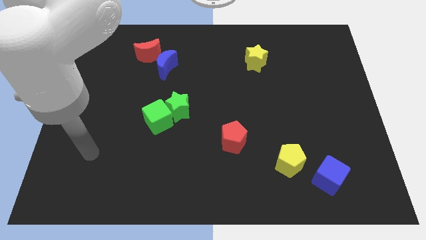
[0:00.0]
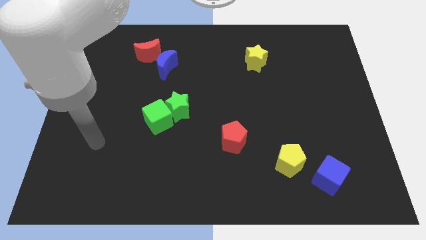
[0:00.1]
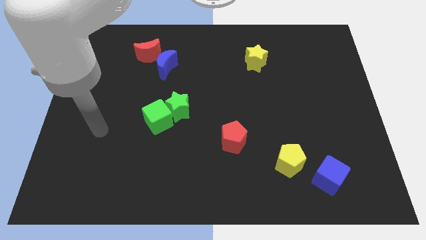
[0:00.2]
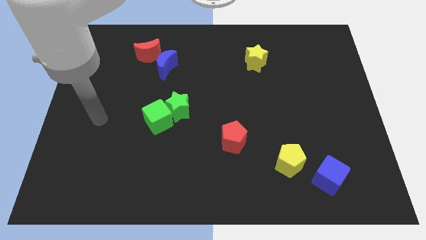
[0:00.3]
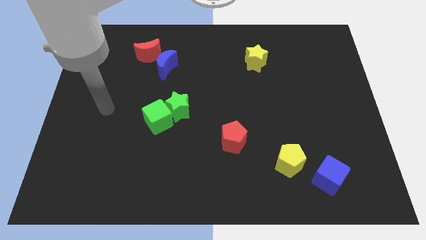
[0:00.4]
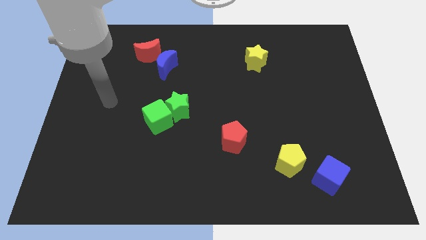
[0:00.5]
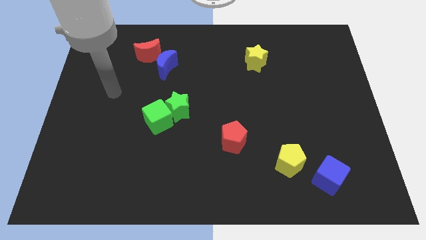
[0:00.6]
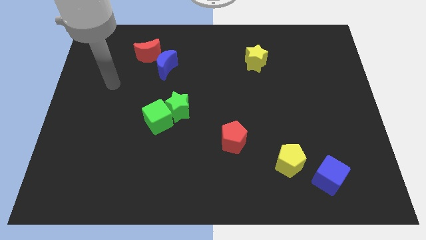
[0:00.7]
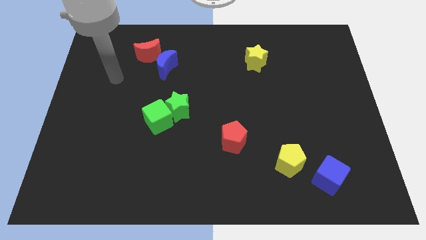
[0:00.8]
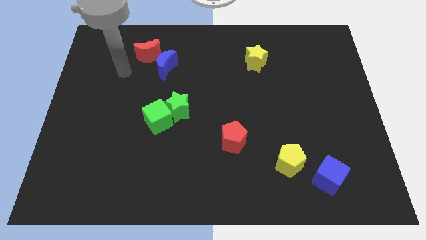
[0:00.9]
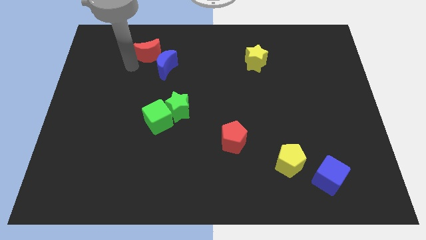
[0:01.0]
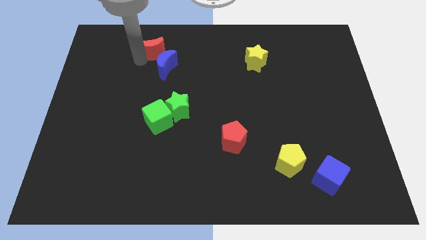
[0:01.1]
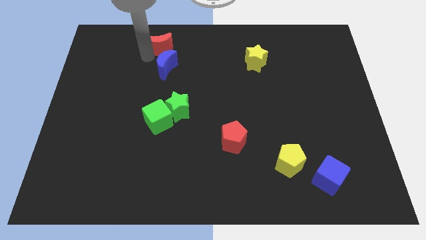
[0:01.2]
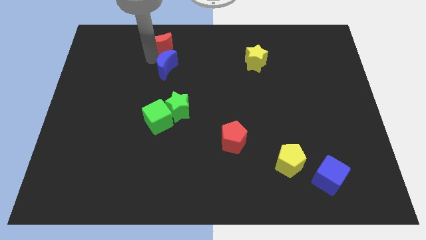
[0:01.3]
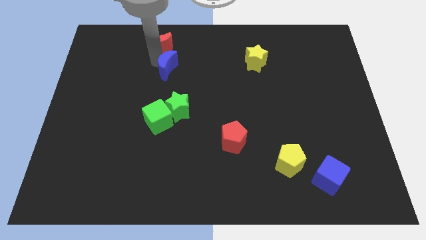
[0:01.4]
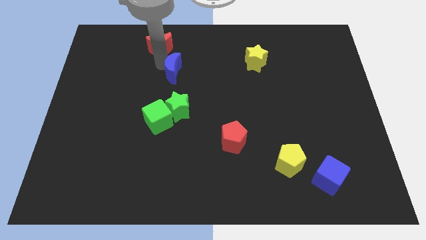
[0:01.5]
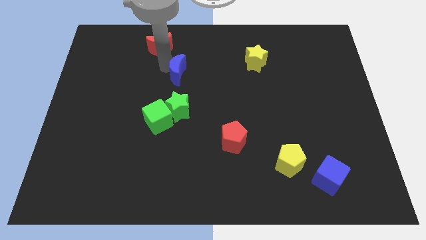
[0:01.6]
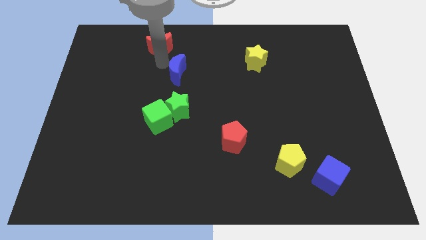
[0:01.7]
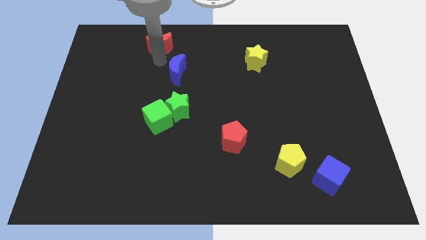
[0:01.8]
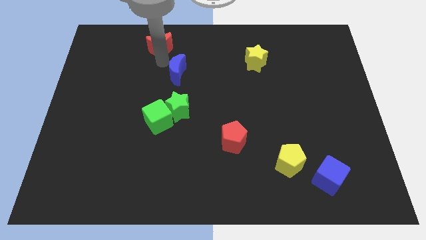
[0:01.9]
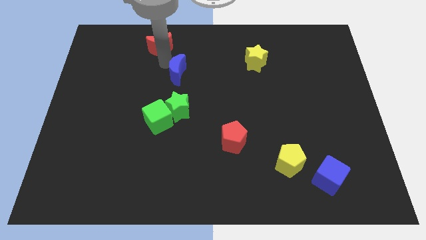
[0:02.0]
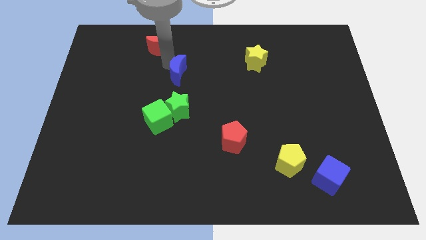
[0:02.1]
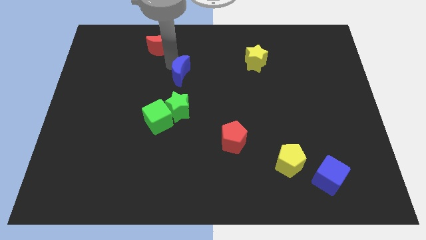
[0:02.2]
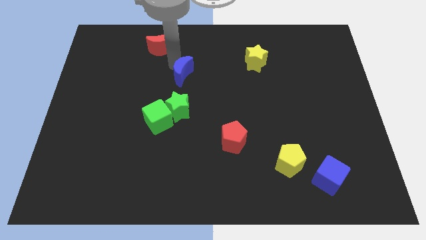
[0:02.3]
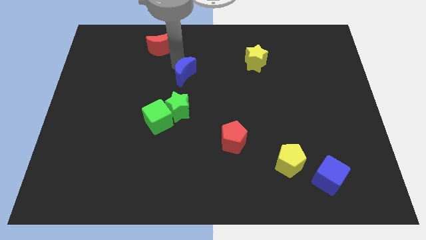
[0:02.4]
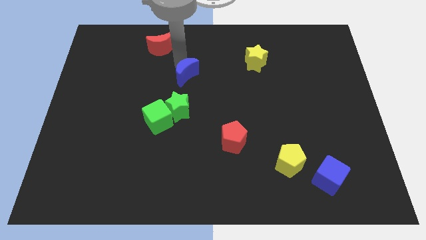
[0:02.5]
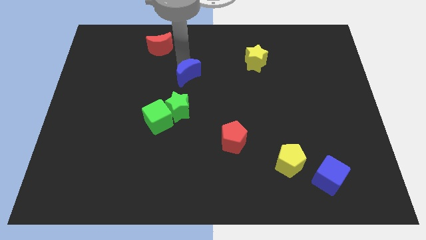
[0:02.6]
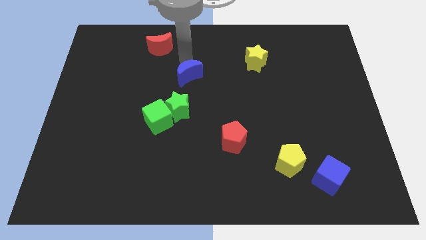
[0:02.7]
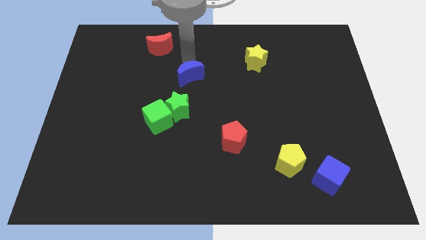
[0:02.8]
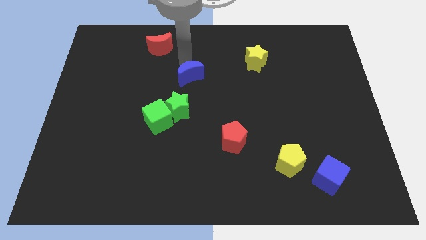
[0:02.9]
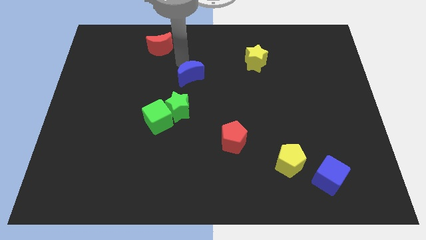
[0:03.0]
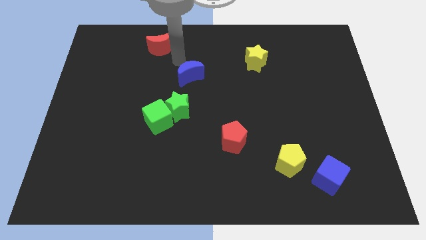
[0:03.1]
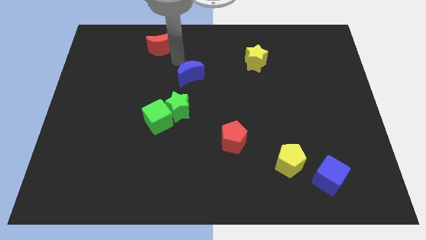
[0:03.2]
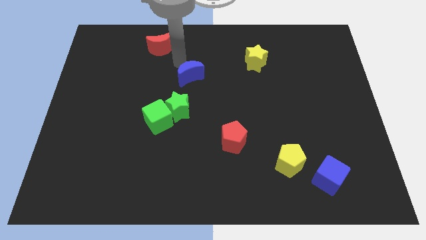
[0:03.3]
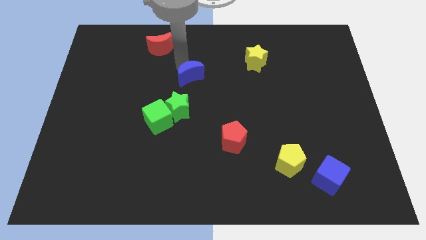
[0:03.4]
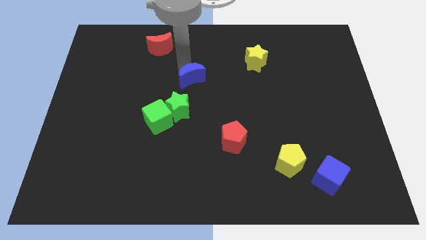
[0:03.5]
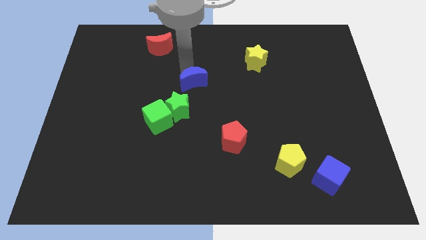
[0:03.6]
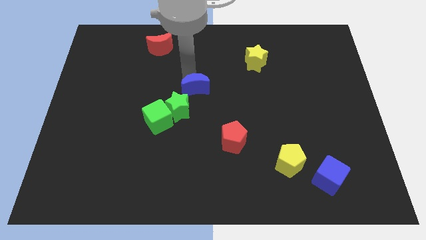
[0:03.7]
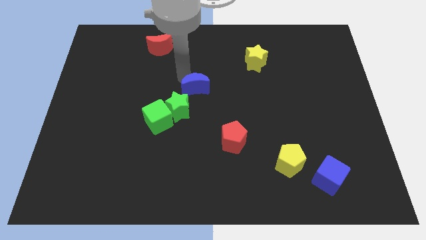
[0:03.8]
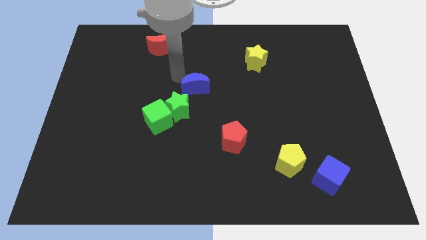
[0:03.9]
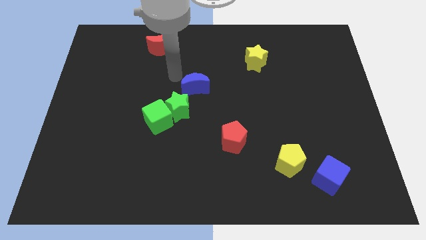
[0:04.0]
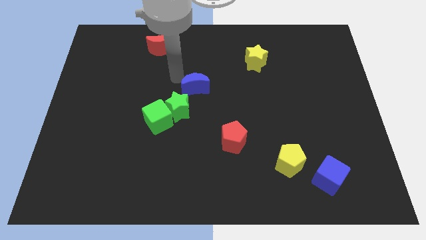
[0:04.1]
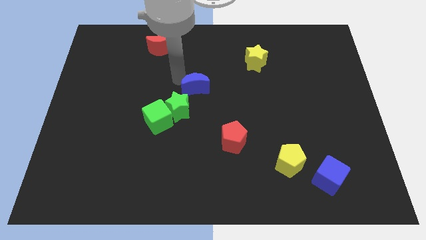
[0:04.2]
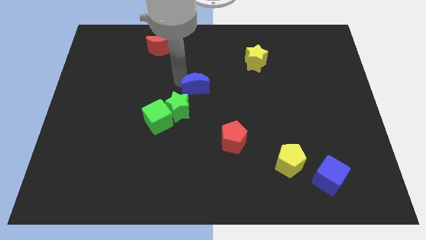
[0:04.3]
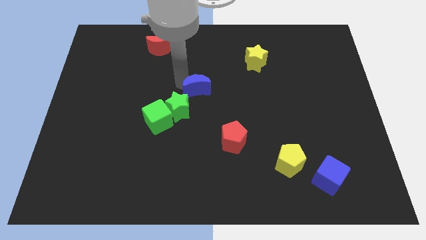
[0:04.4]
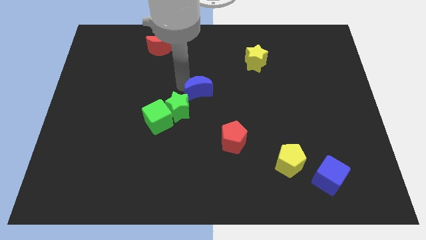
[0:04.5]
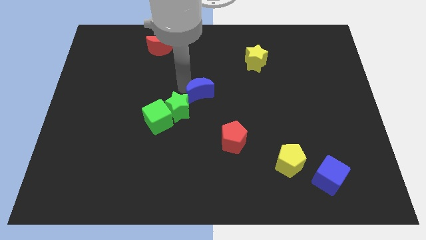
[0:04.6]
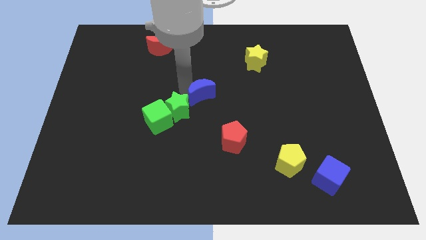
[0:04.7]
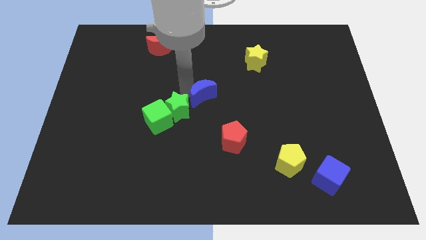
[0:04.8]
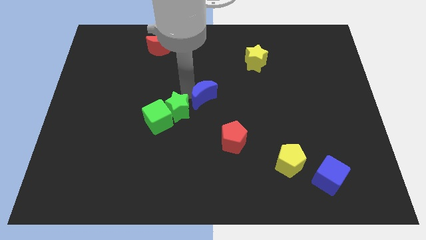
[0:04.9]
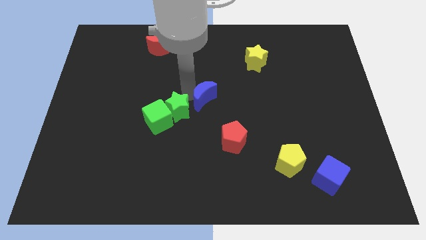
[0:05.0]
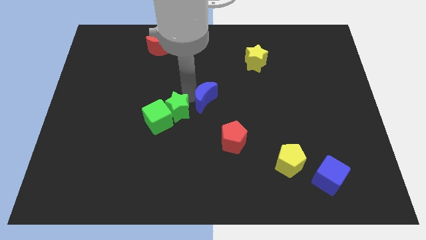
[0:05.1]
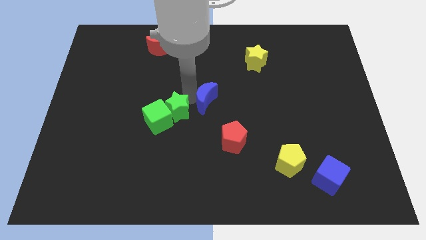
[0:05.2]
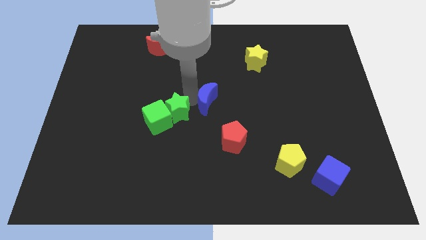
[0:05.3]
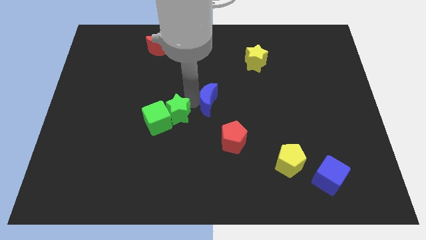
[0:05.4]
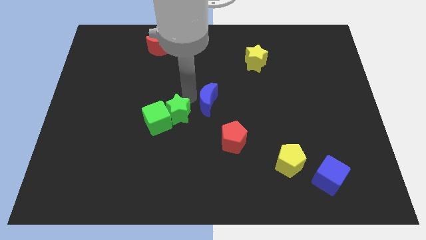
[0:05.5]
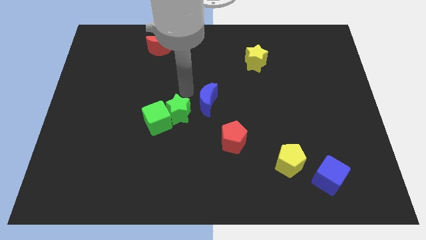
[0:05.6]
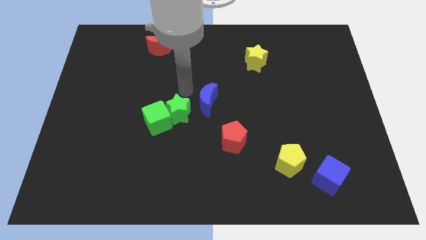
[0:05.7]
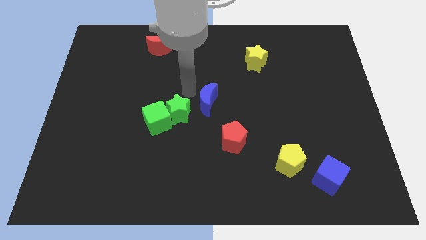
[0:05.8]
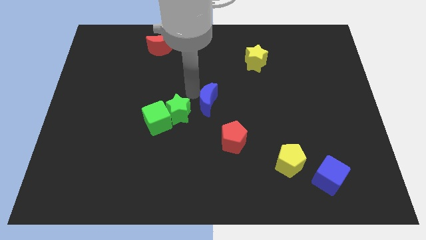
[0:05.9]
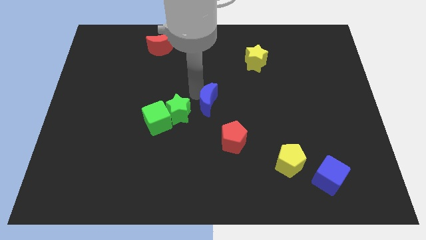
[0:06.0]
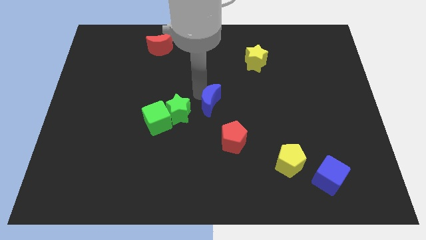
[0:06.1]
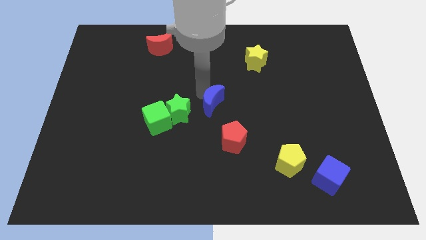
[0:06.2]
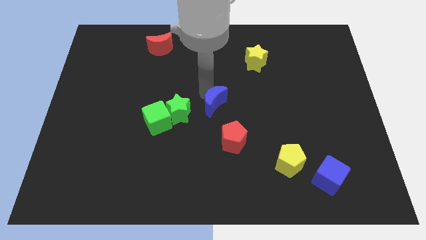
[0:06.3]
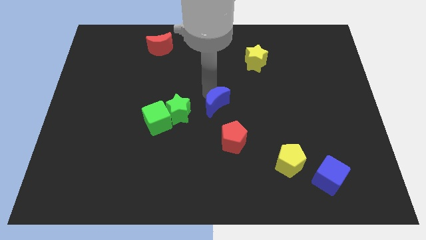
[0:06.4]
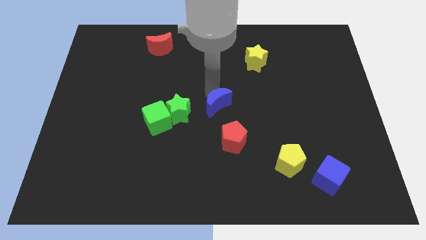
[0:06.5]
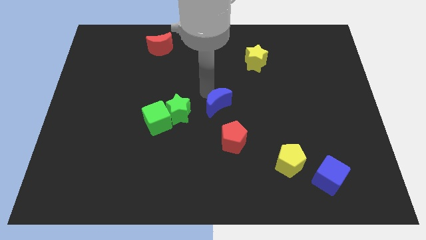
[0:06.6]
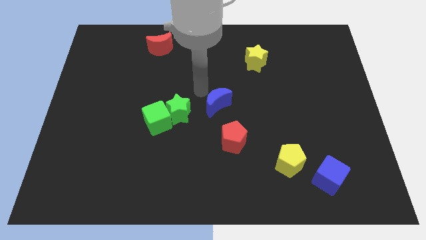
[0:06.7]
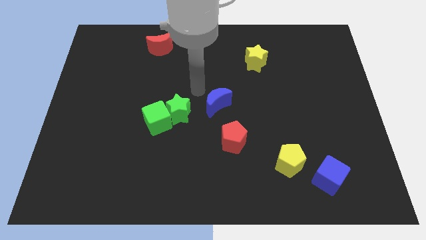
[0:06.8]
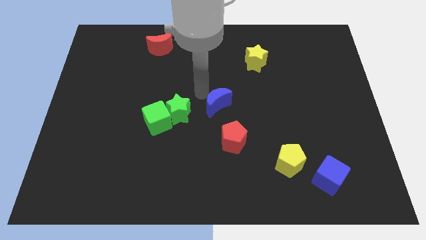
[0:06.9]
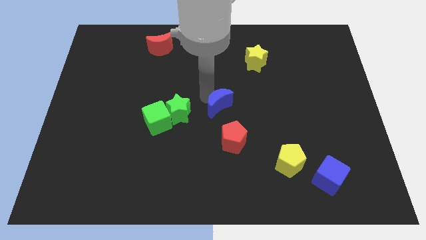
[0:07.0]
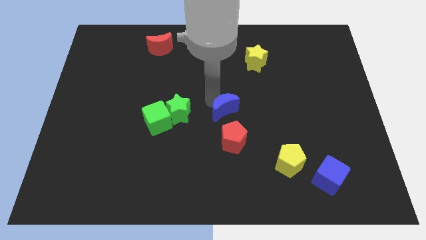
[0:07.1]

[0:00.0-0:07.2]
move the blue moon diagonally downwards and right

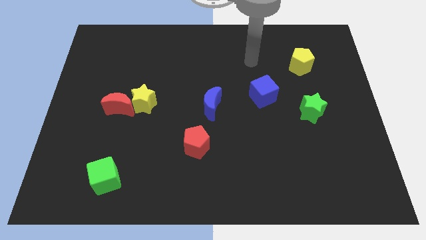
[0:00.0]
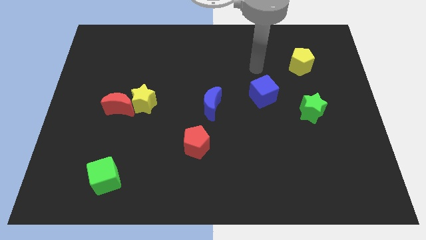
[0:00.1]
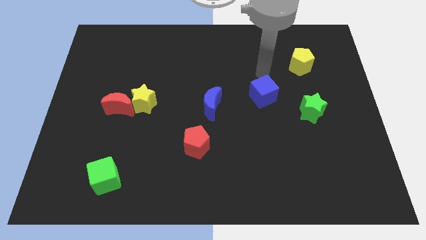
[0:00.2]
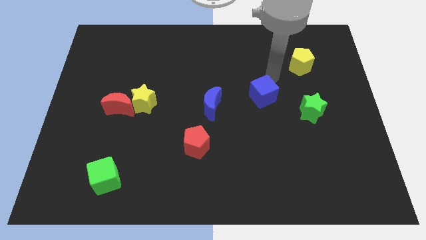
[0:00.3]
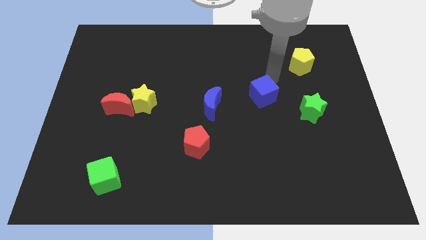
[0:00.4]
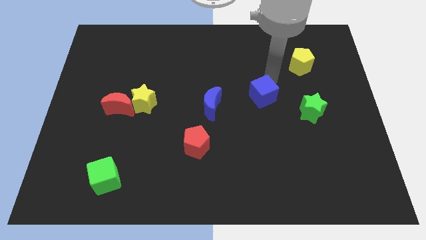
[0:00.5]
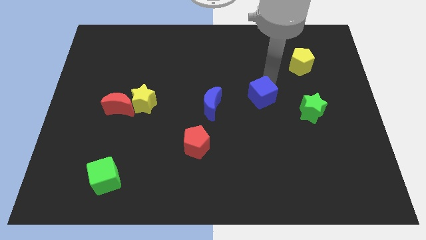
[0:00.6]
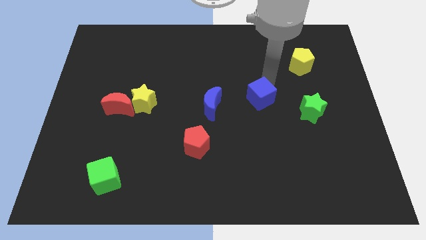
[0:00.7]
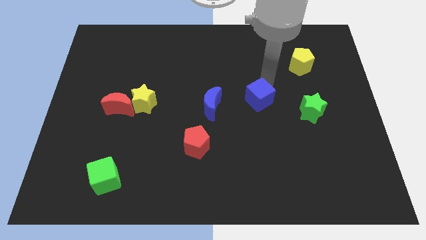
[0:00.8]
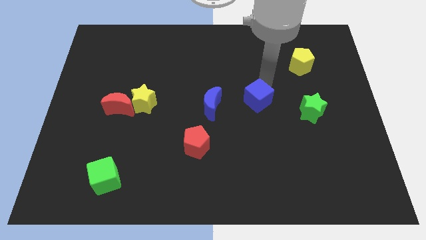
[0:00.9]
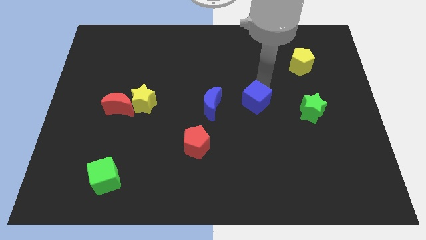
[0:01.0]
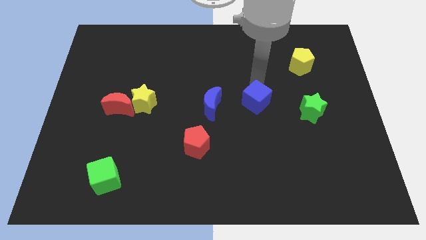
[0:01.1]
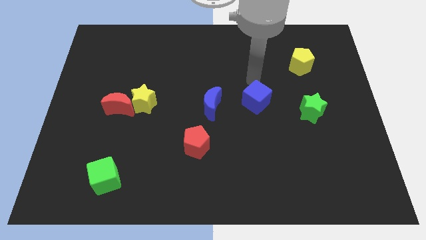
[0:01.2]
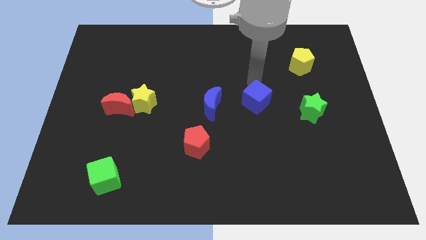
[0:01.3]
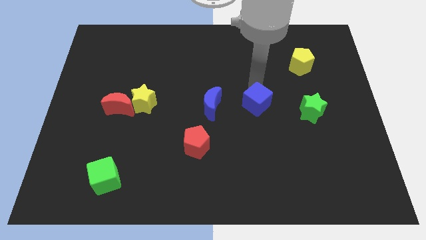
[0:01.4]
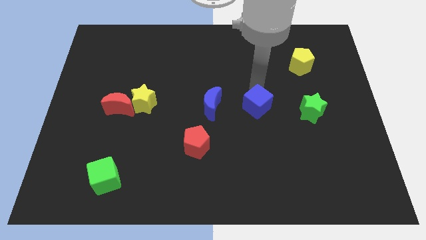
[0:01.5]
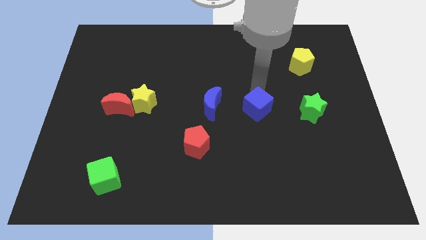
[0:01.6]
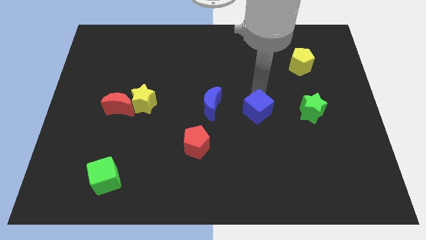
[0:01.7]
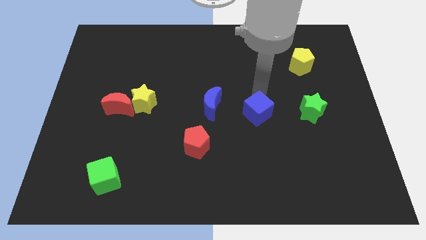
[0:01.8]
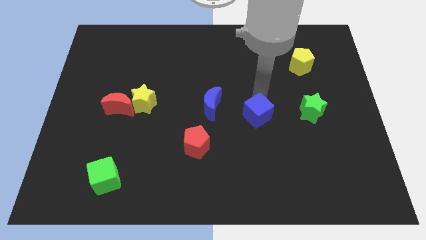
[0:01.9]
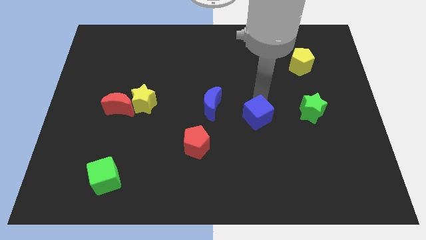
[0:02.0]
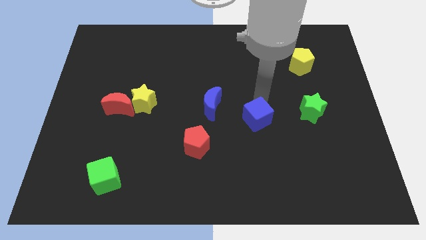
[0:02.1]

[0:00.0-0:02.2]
slightly push the blue cube downwards
